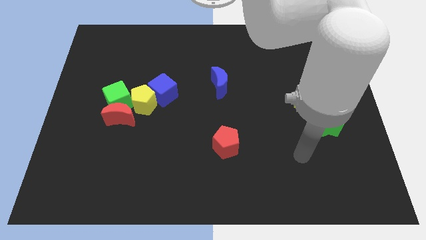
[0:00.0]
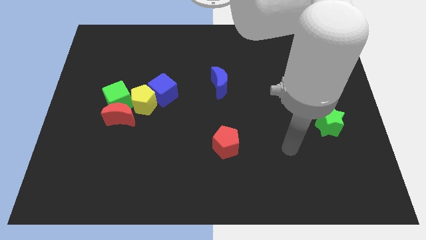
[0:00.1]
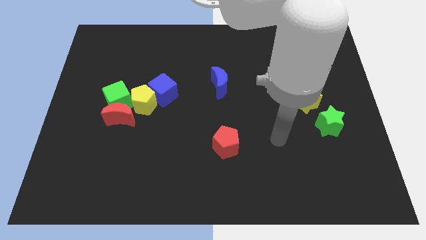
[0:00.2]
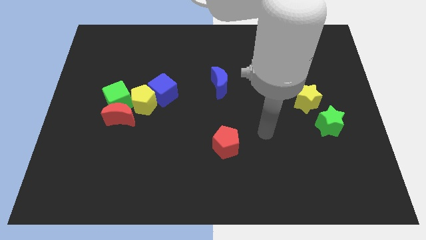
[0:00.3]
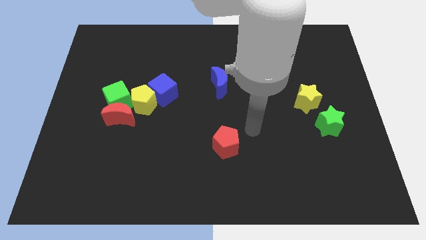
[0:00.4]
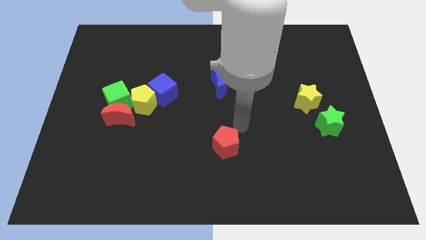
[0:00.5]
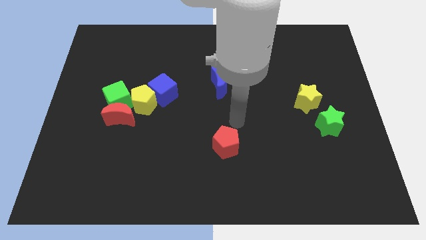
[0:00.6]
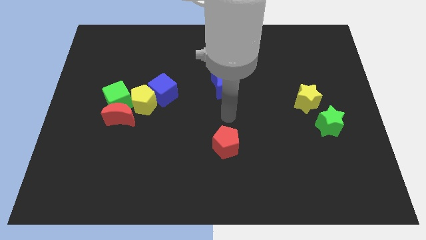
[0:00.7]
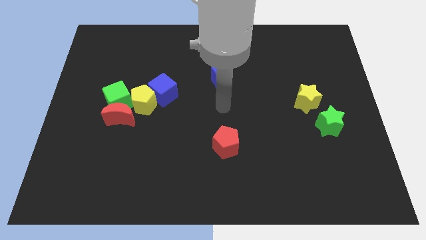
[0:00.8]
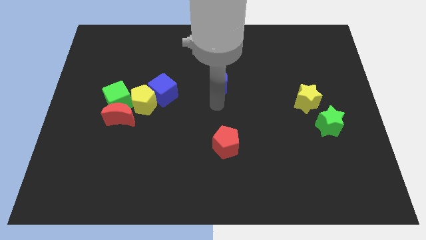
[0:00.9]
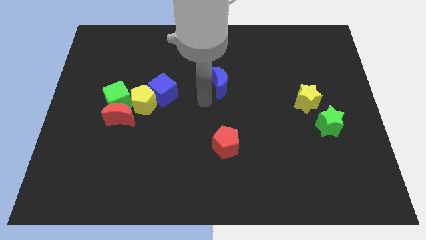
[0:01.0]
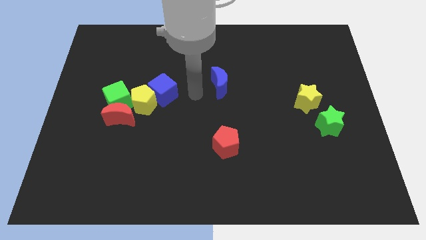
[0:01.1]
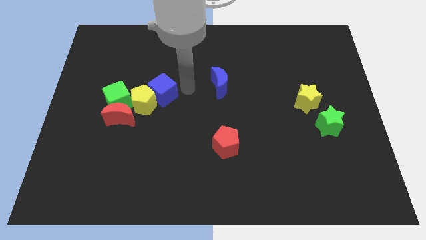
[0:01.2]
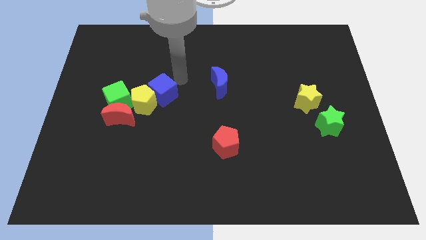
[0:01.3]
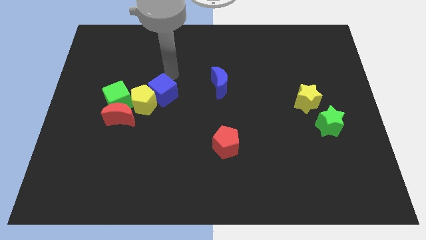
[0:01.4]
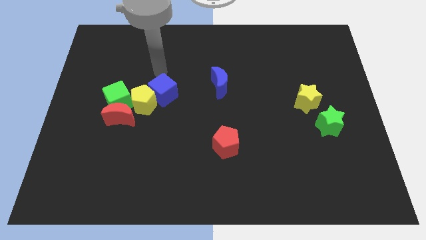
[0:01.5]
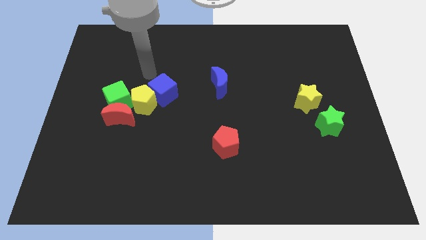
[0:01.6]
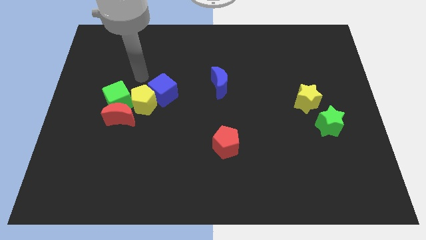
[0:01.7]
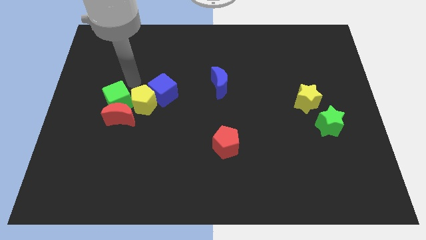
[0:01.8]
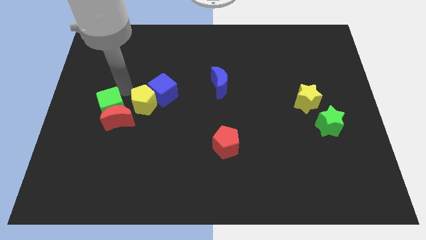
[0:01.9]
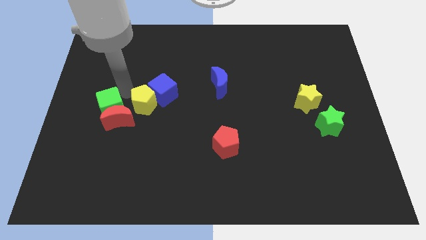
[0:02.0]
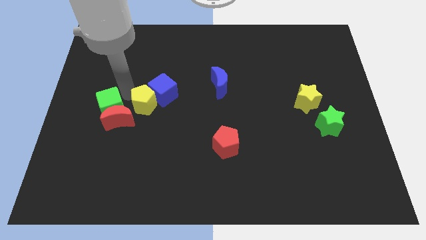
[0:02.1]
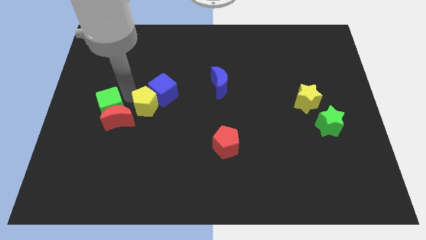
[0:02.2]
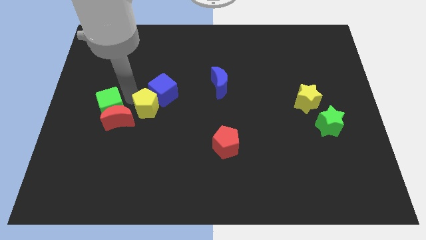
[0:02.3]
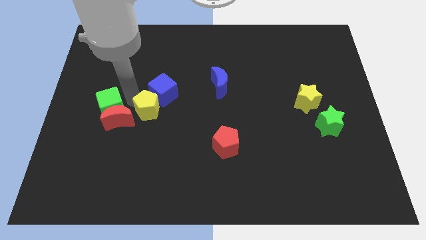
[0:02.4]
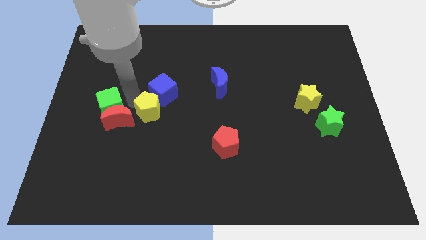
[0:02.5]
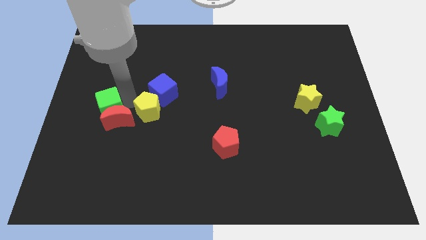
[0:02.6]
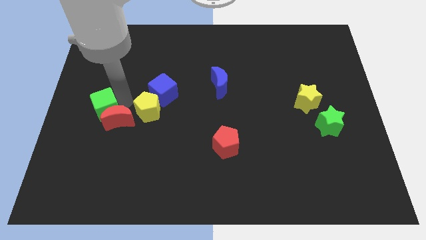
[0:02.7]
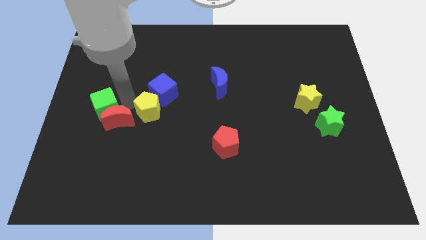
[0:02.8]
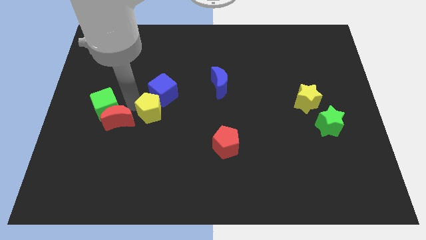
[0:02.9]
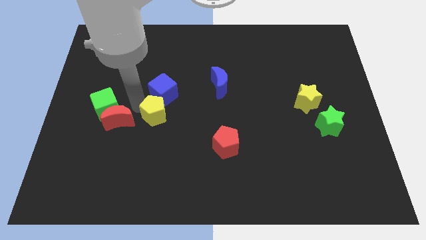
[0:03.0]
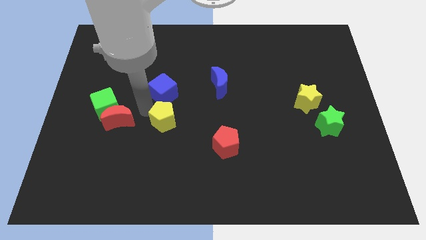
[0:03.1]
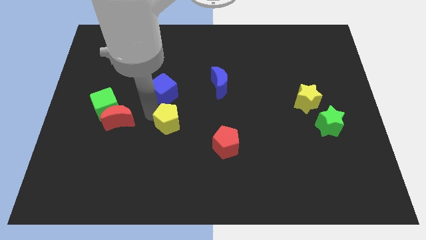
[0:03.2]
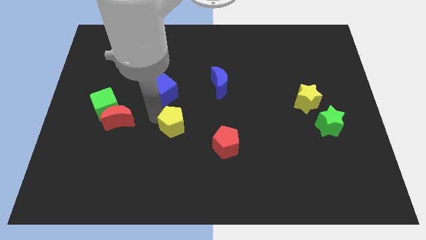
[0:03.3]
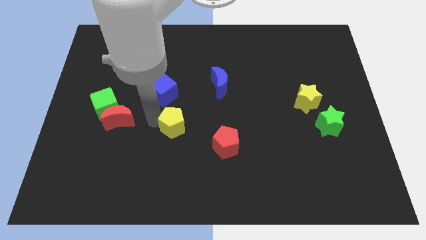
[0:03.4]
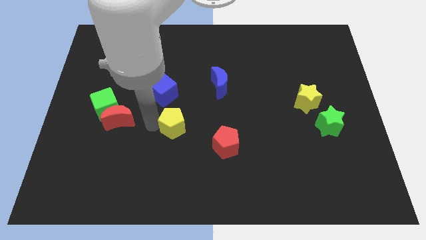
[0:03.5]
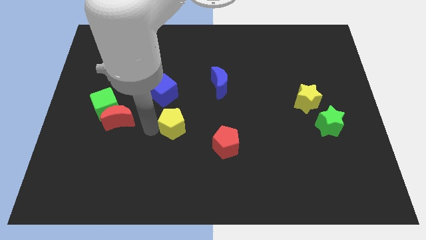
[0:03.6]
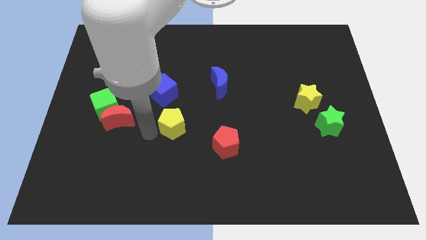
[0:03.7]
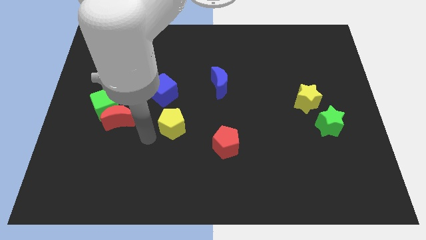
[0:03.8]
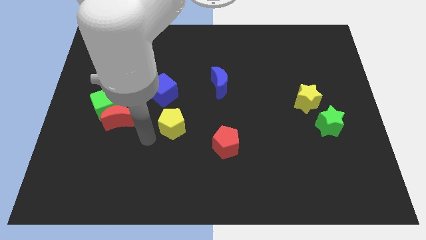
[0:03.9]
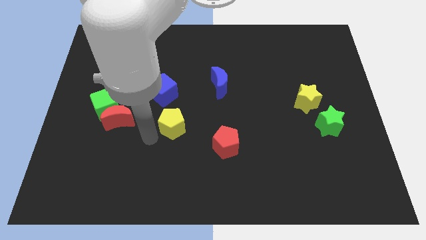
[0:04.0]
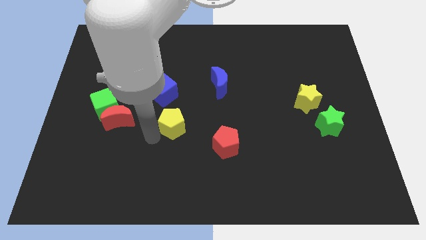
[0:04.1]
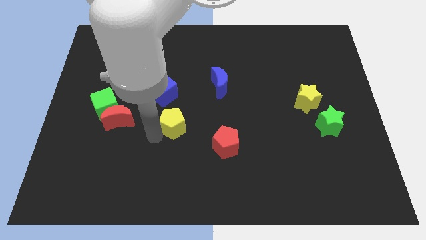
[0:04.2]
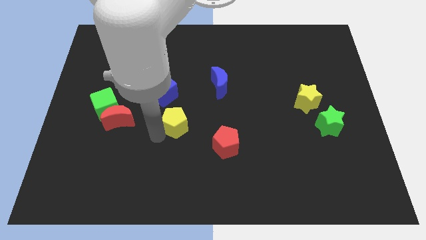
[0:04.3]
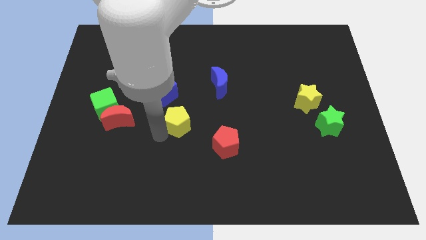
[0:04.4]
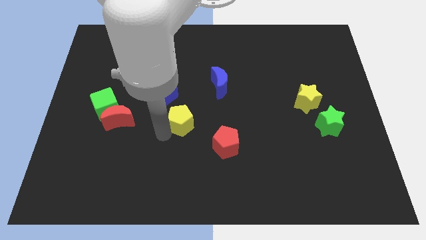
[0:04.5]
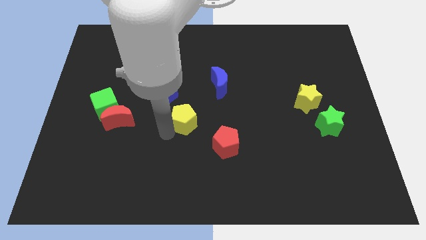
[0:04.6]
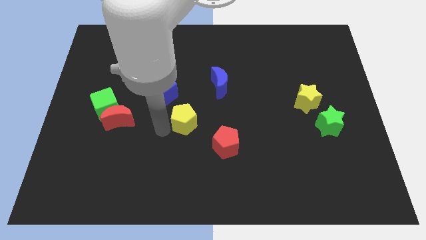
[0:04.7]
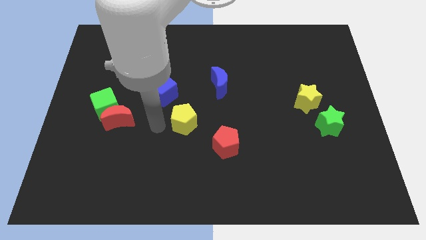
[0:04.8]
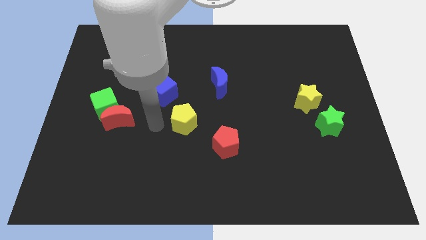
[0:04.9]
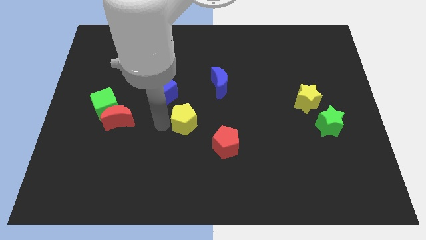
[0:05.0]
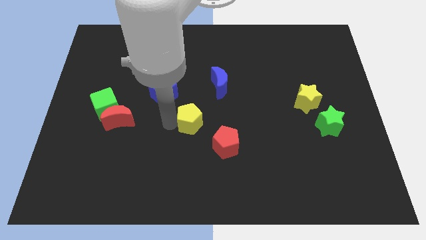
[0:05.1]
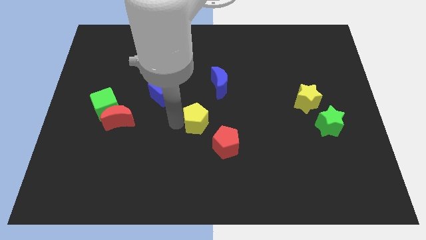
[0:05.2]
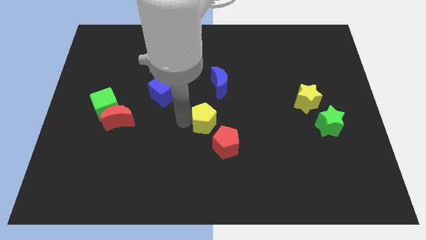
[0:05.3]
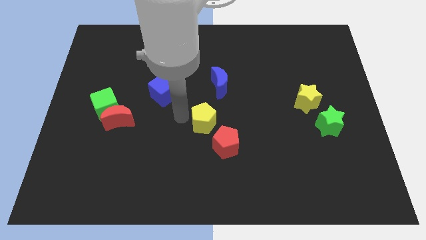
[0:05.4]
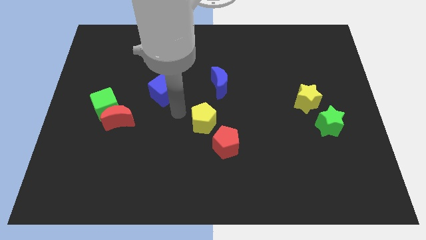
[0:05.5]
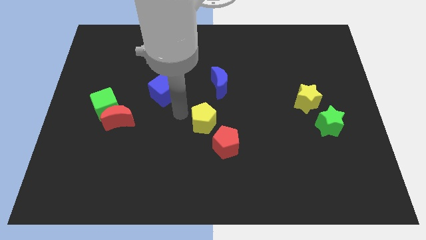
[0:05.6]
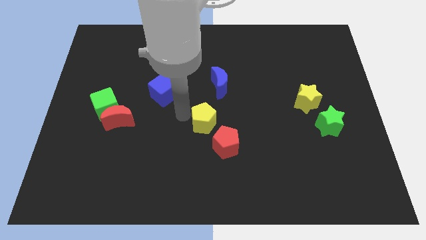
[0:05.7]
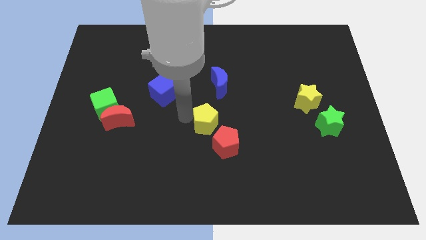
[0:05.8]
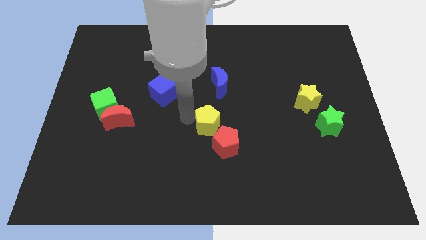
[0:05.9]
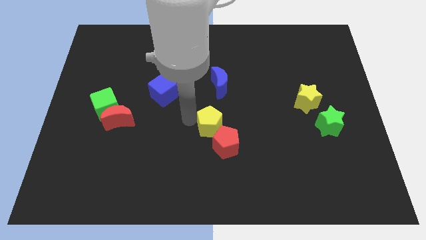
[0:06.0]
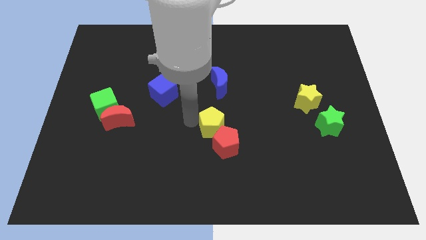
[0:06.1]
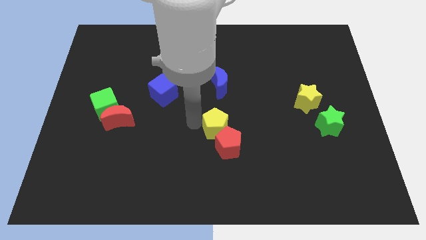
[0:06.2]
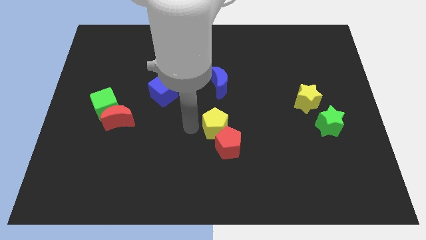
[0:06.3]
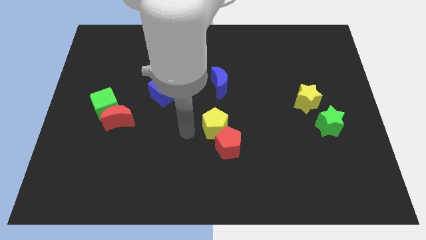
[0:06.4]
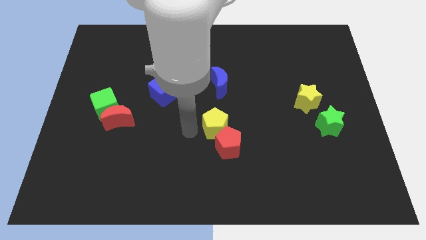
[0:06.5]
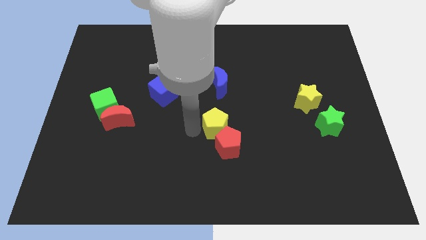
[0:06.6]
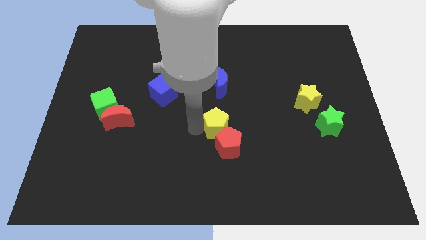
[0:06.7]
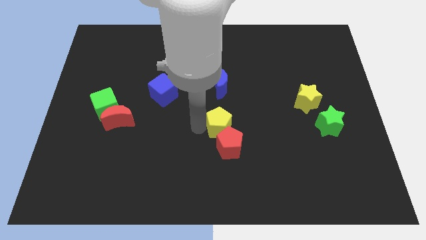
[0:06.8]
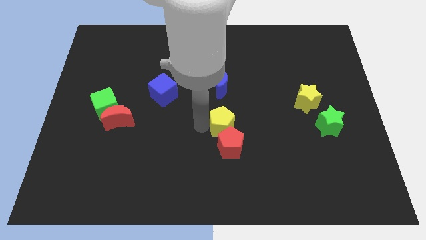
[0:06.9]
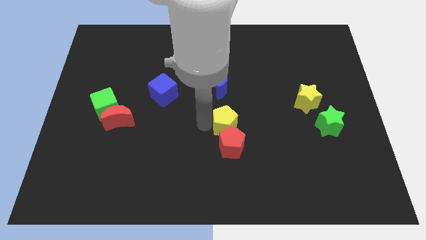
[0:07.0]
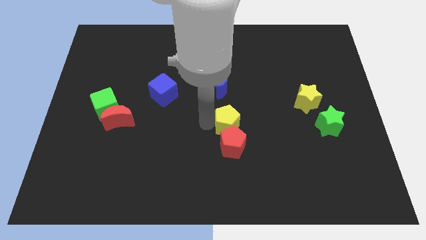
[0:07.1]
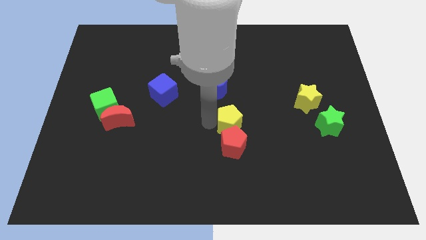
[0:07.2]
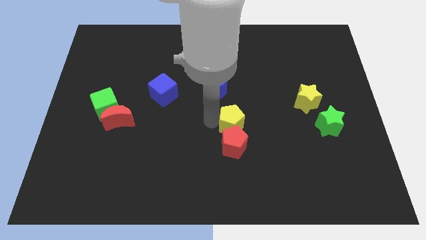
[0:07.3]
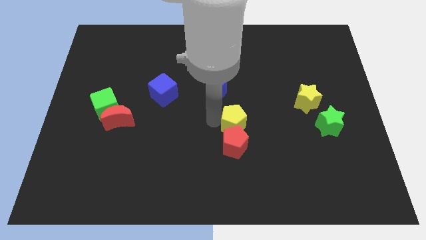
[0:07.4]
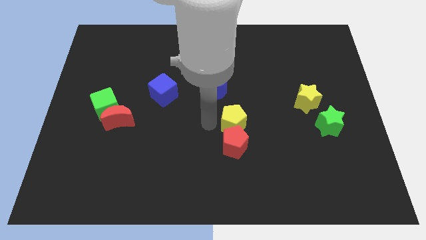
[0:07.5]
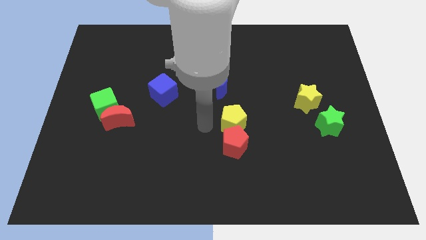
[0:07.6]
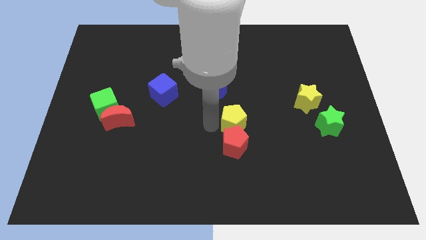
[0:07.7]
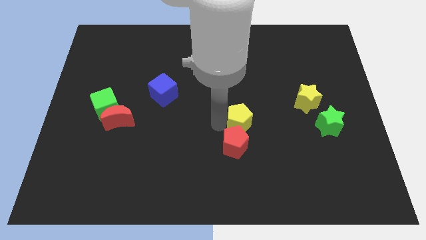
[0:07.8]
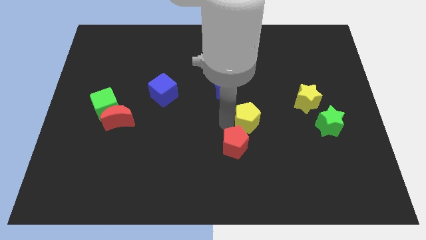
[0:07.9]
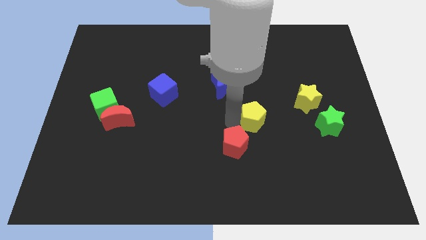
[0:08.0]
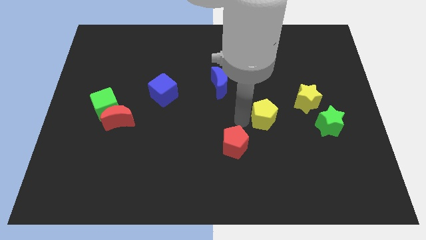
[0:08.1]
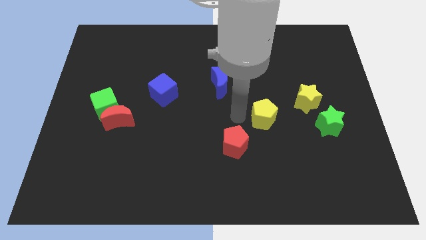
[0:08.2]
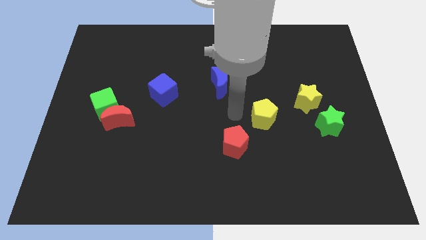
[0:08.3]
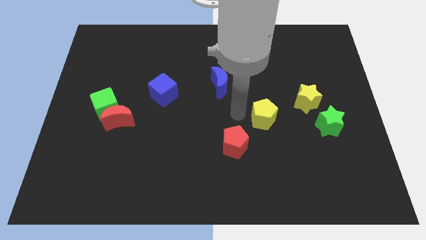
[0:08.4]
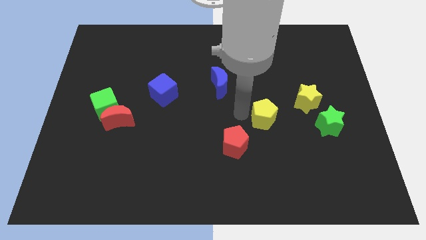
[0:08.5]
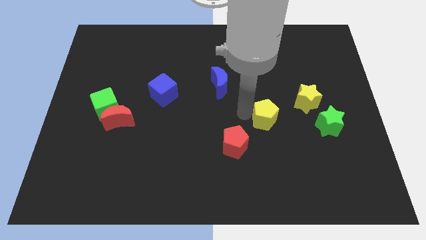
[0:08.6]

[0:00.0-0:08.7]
push the yellow pentagon to the bottom left side of the yellow star
